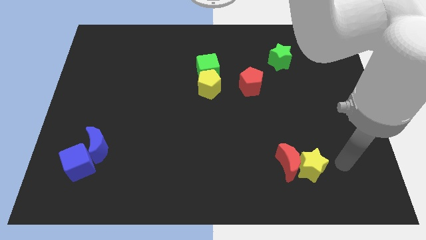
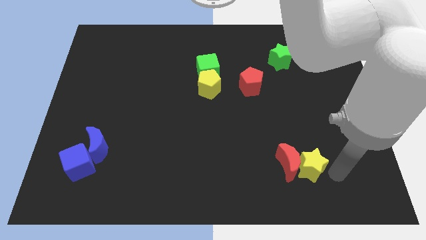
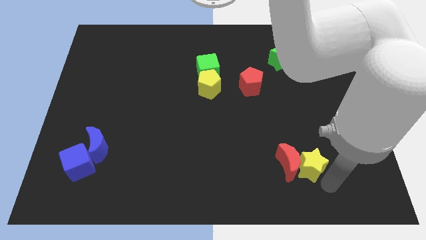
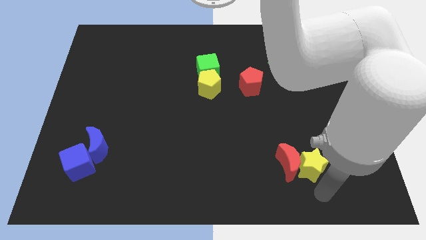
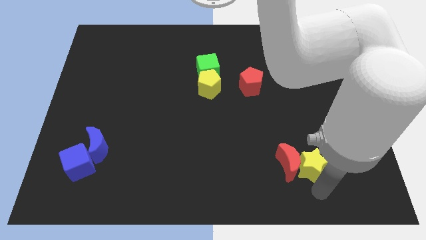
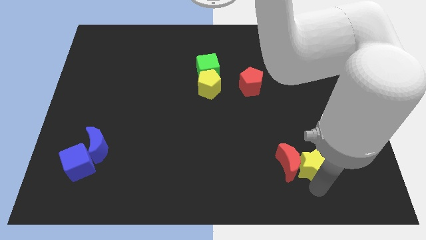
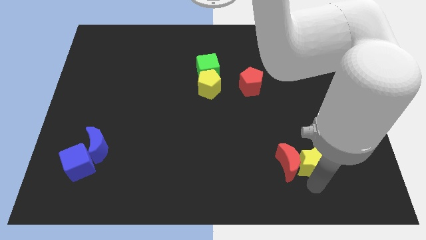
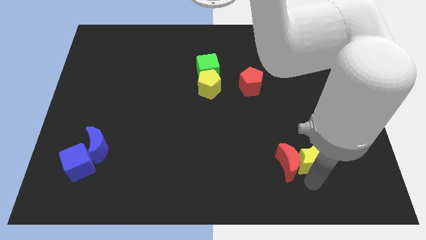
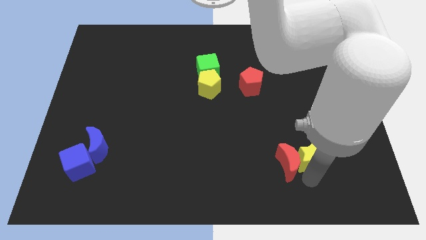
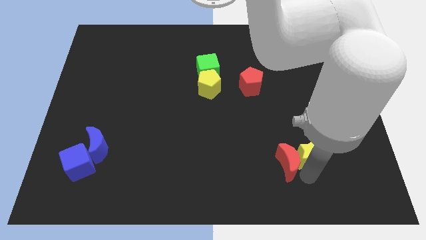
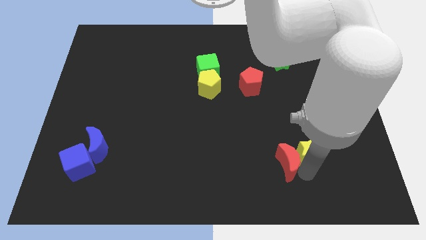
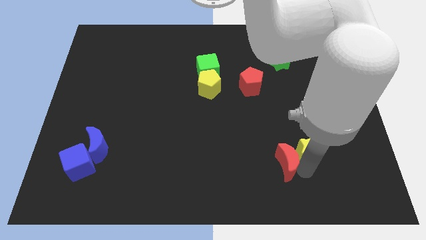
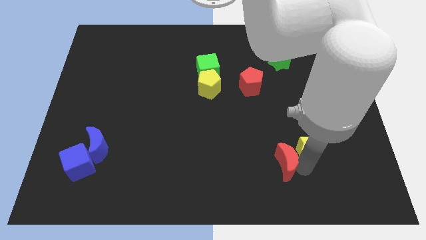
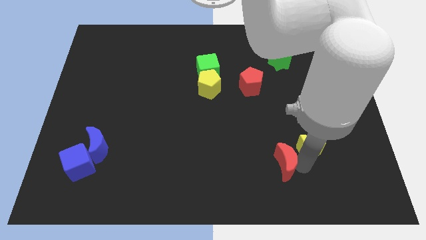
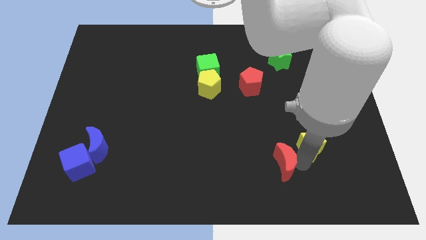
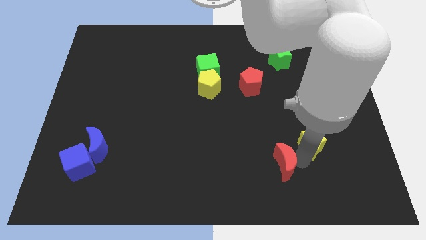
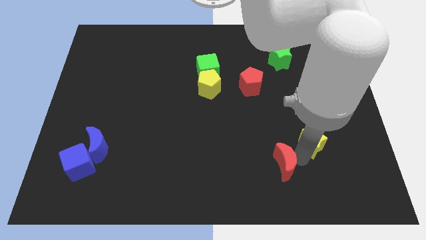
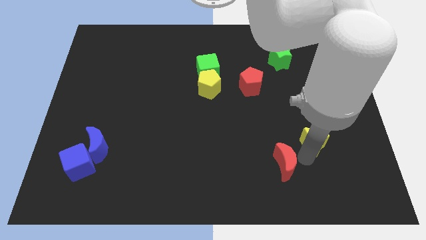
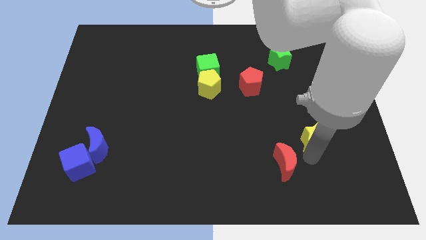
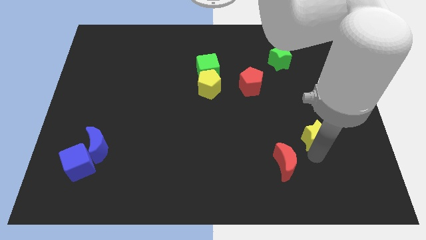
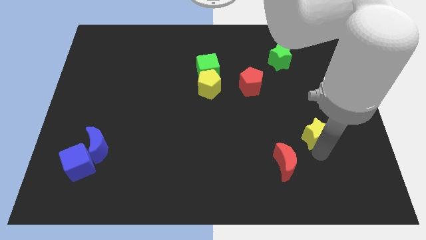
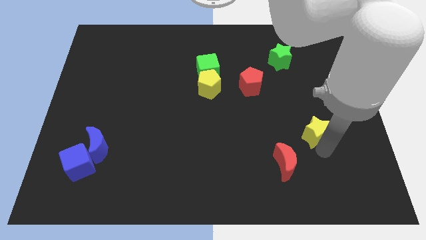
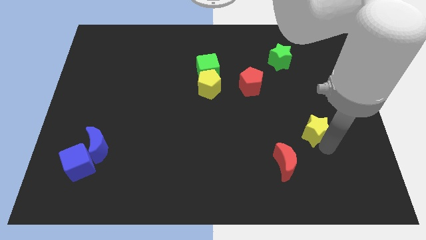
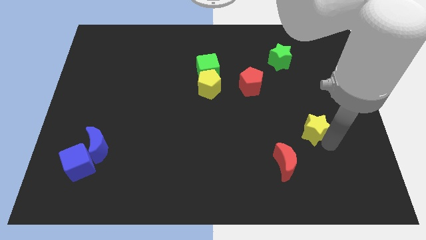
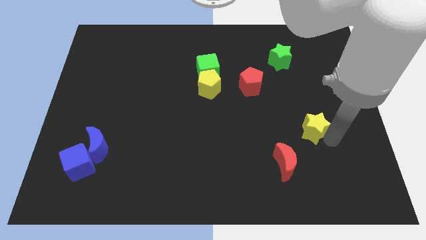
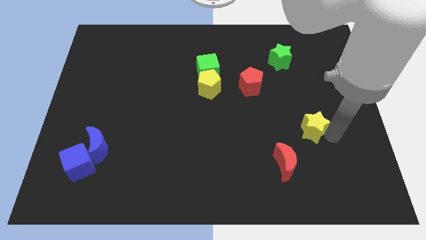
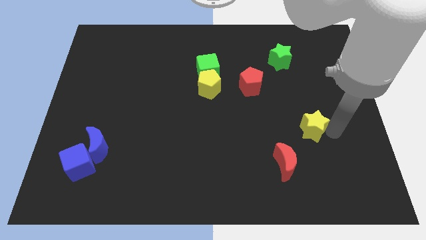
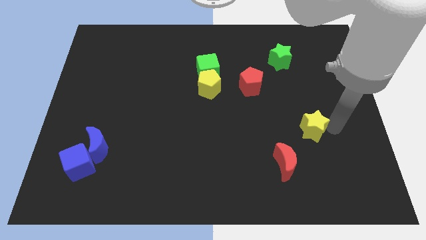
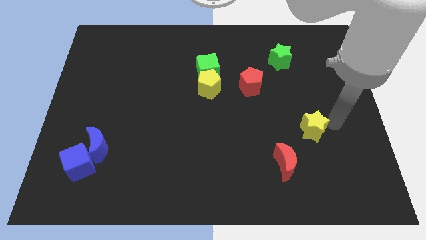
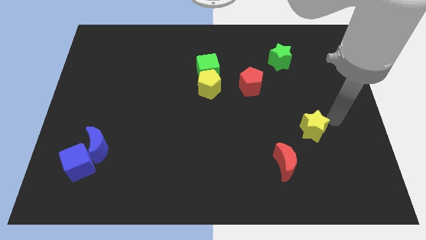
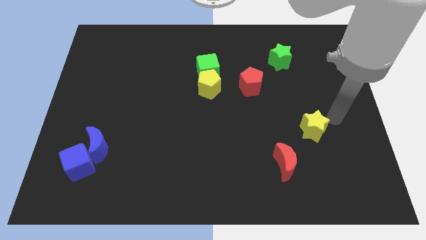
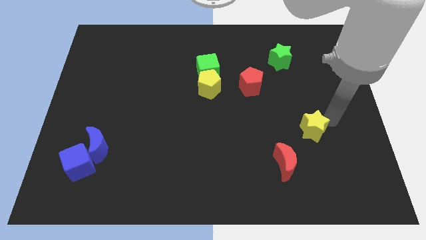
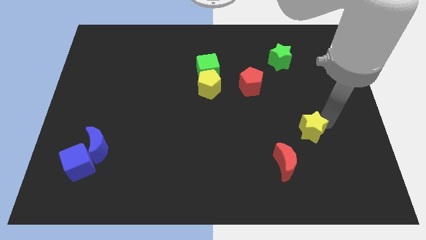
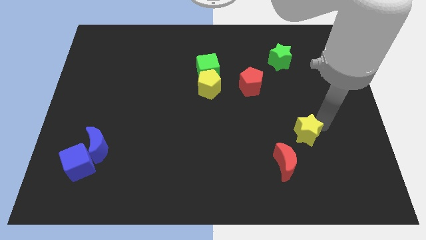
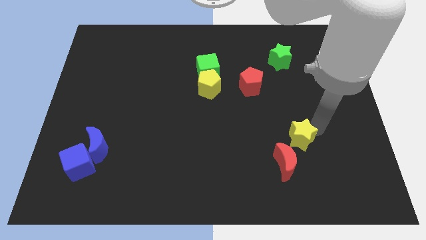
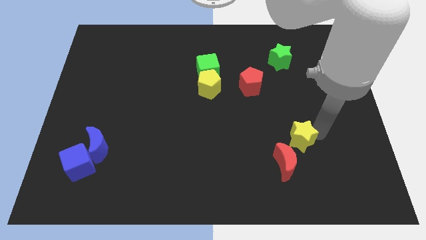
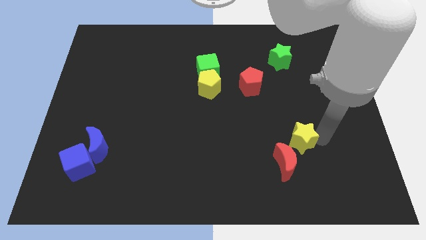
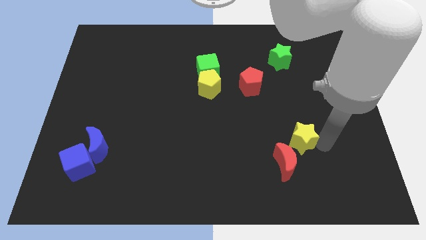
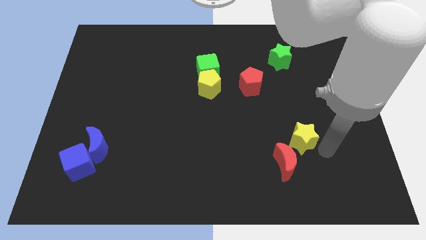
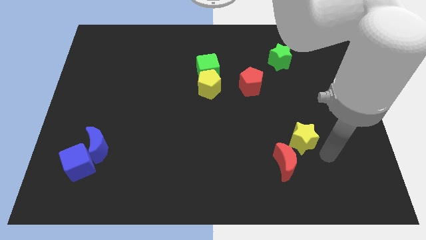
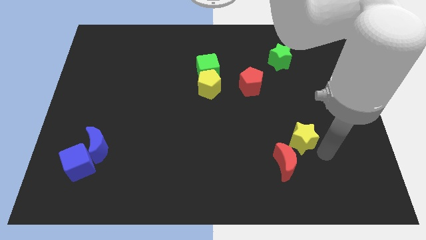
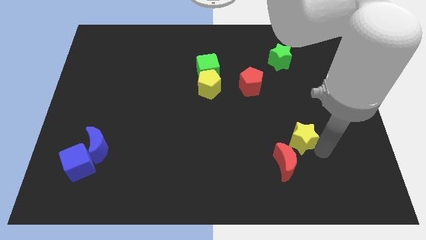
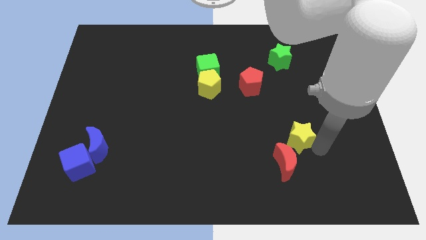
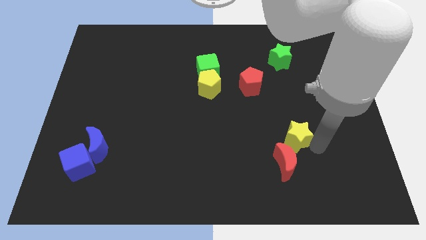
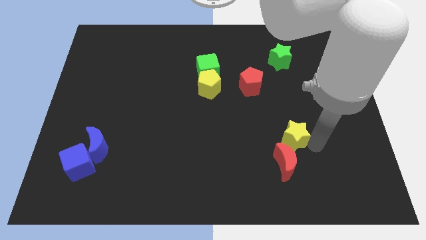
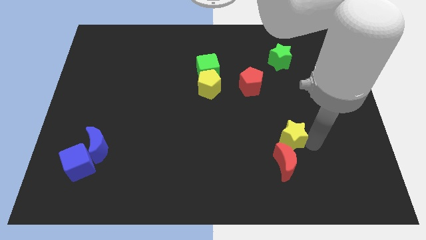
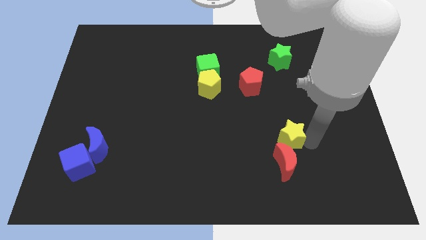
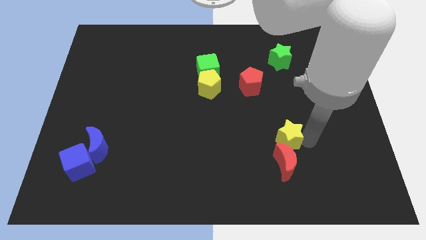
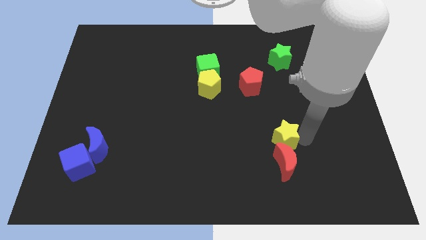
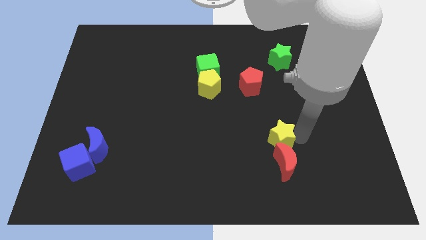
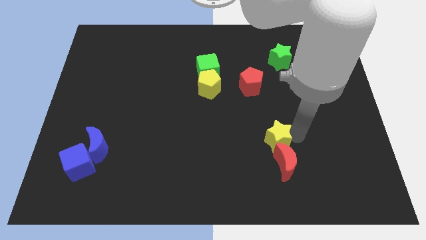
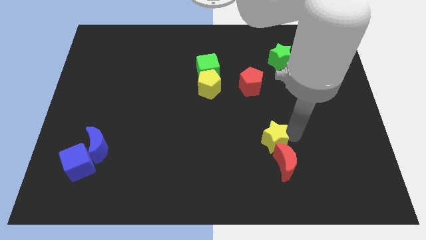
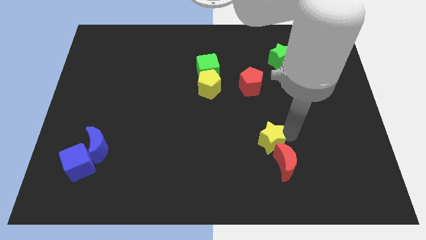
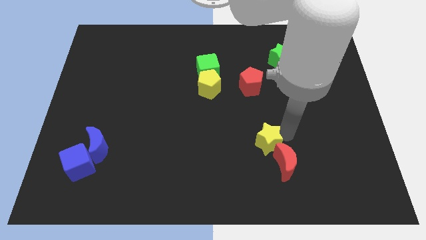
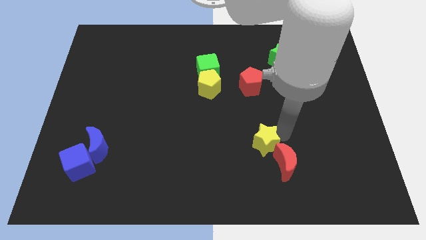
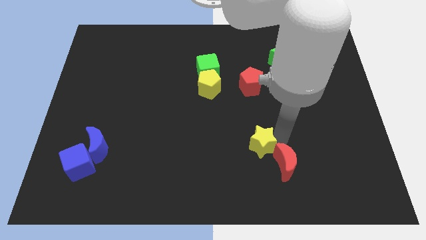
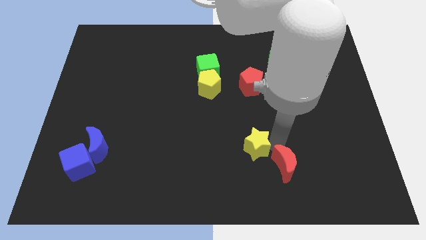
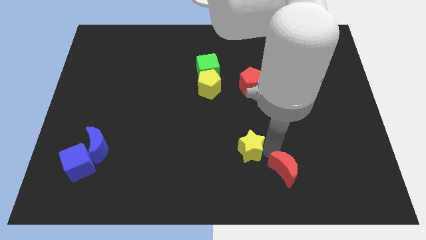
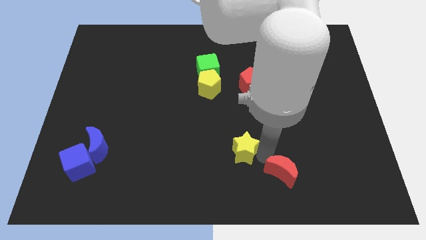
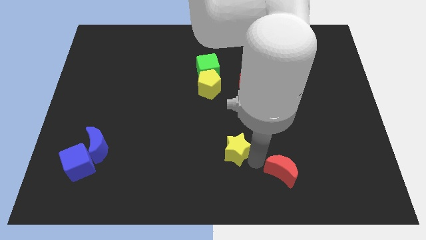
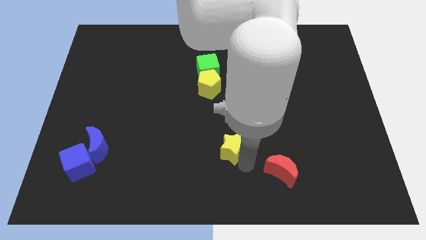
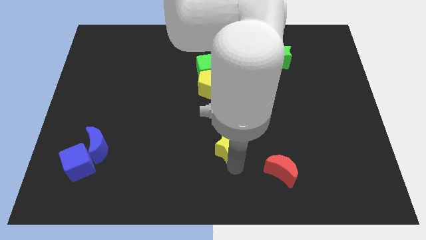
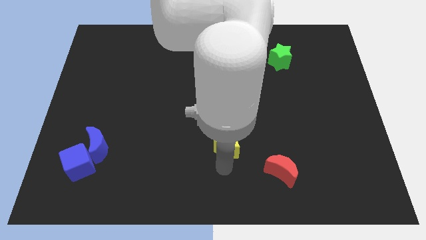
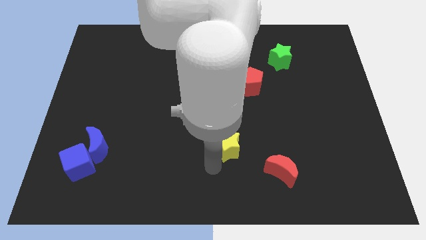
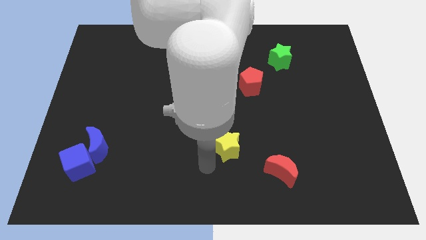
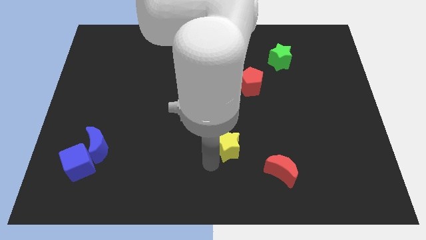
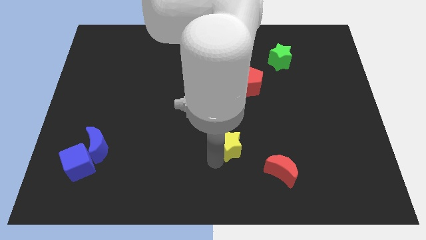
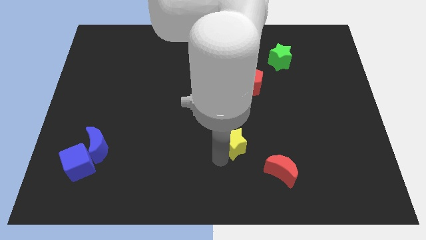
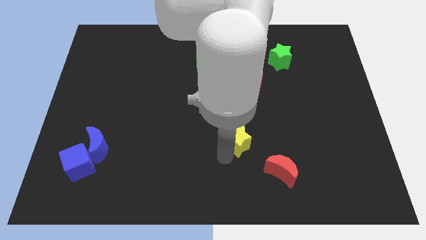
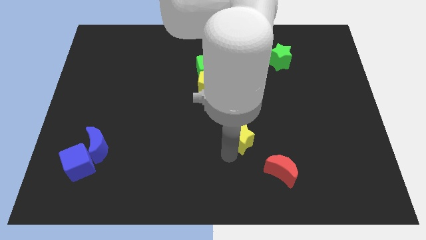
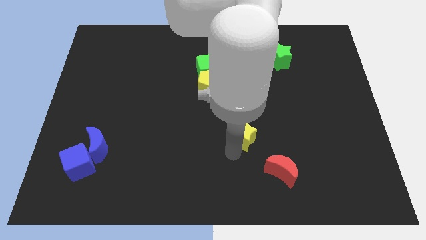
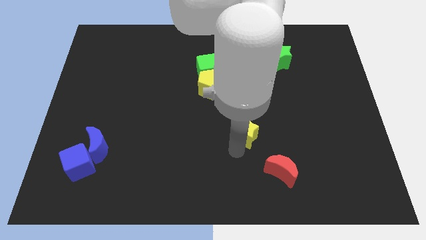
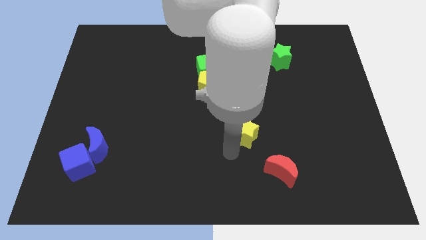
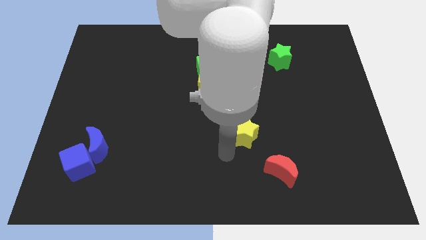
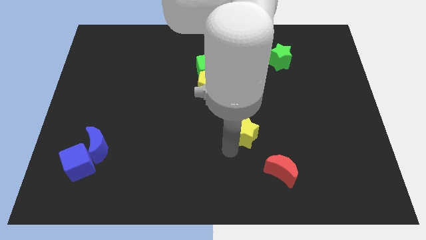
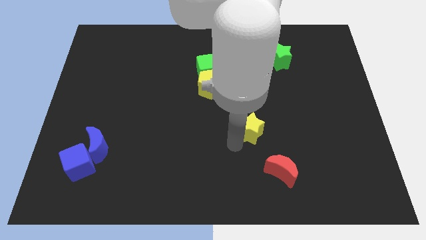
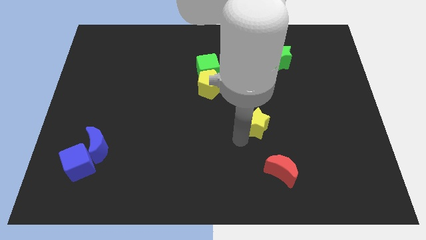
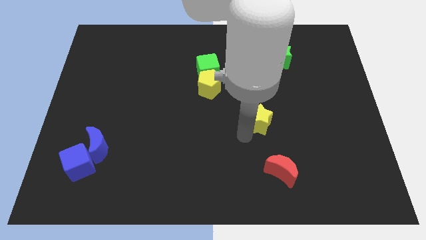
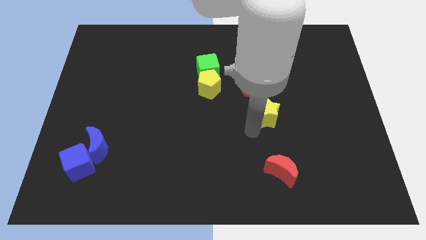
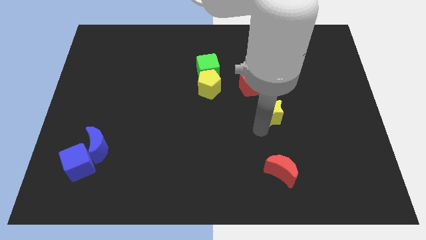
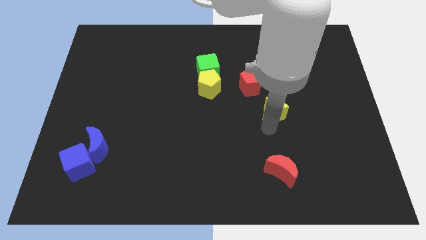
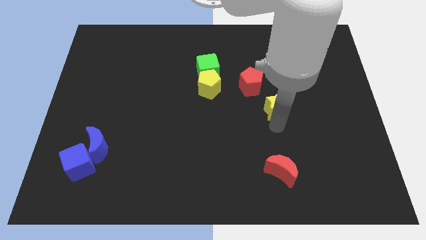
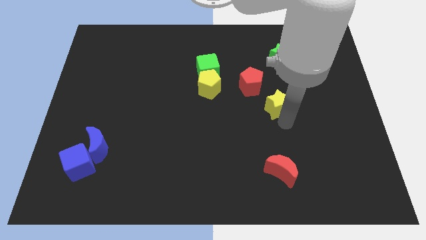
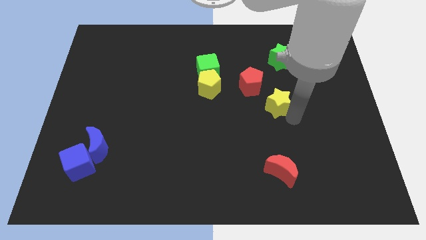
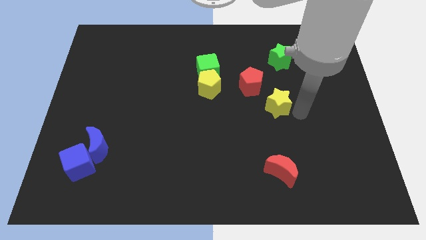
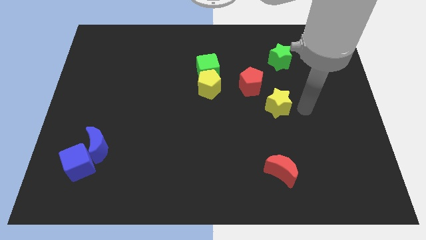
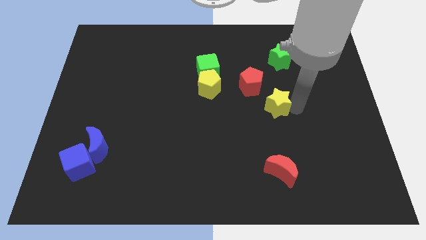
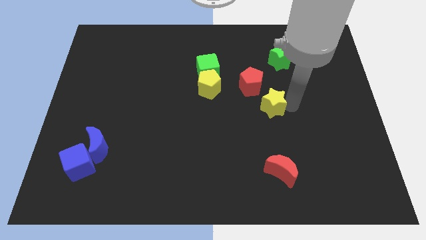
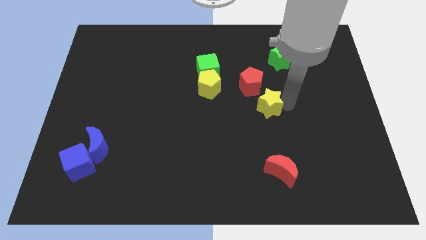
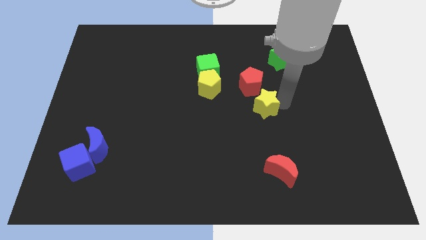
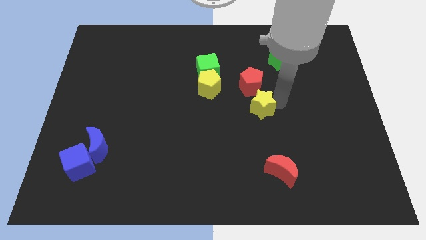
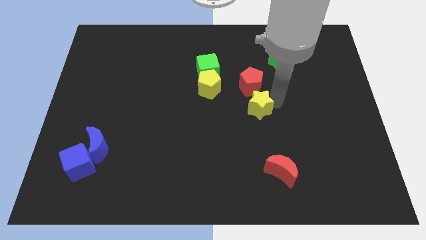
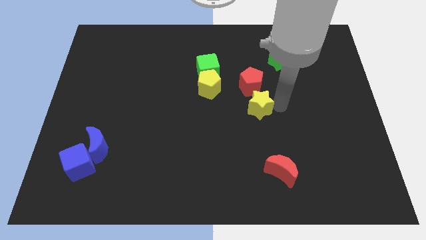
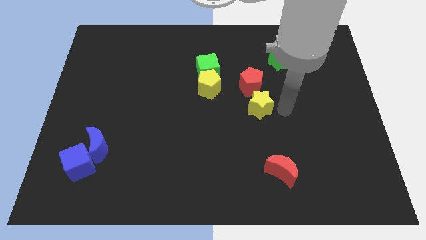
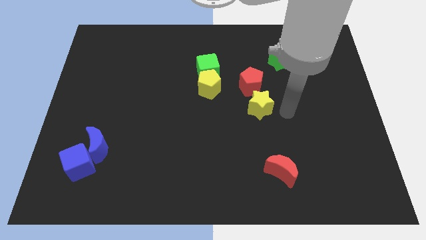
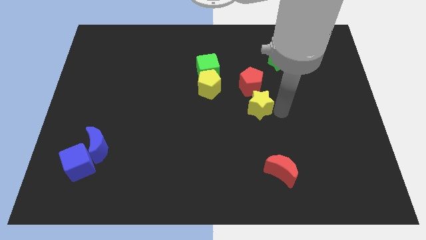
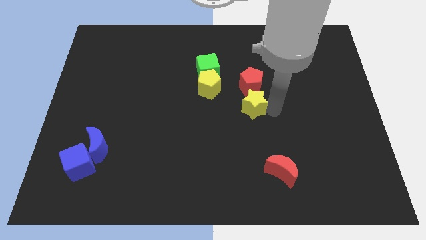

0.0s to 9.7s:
push the yellow star to the bottom right of the yellow pentagon
